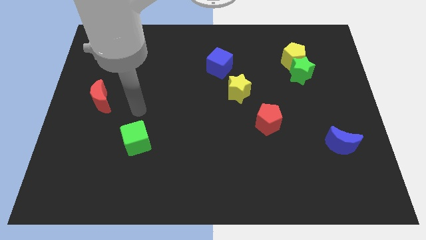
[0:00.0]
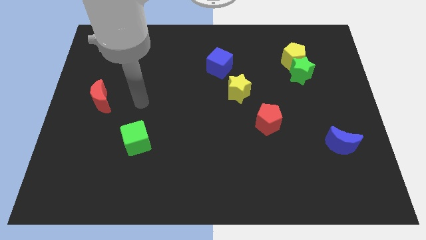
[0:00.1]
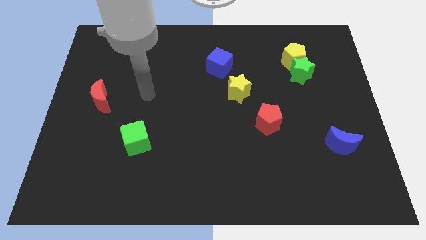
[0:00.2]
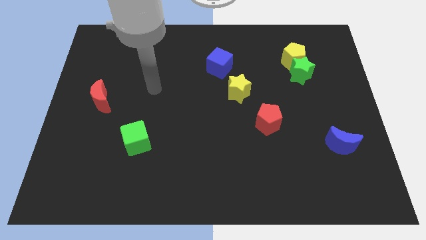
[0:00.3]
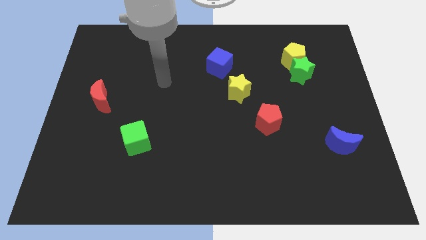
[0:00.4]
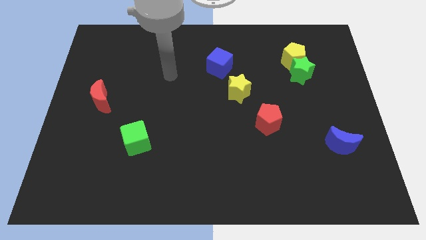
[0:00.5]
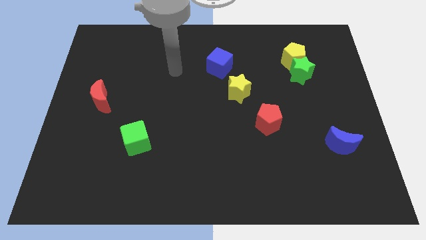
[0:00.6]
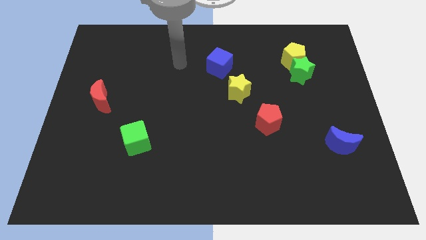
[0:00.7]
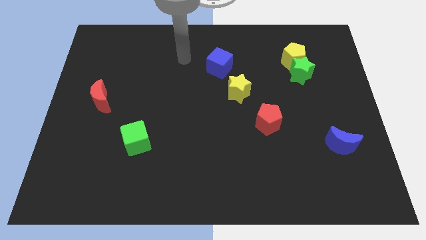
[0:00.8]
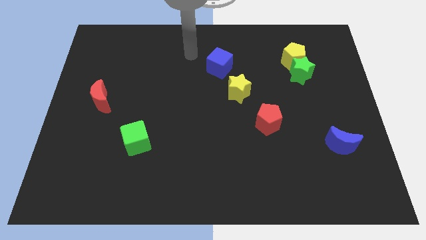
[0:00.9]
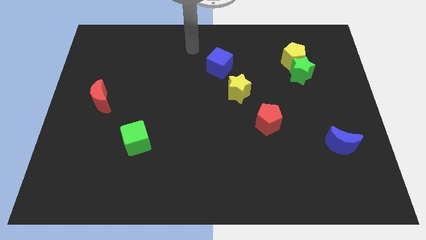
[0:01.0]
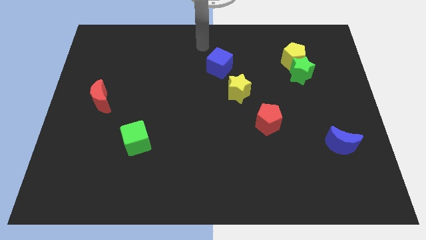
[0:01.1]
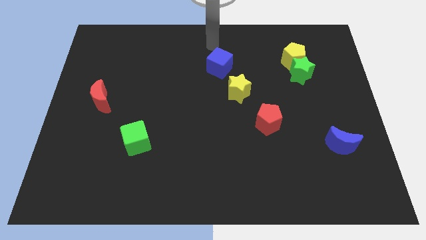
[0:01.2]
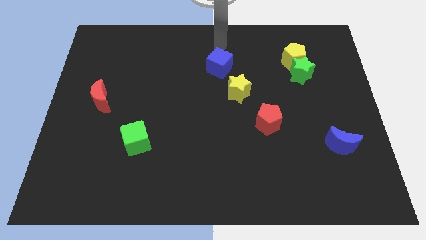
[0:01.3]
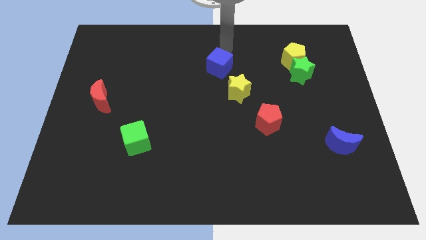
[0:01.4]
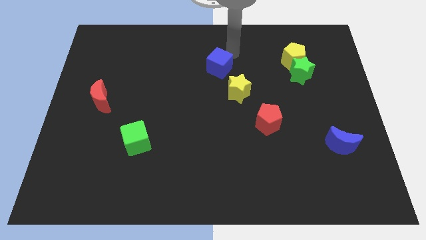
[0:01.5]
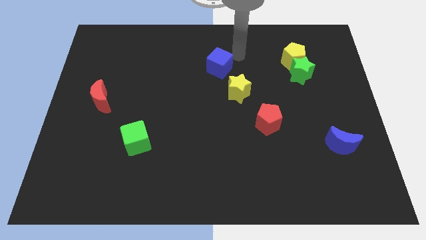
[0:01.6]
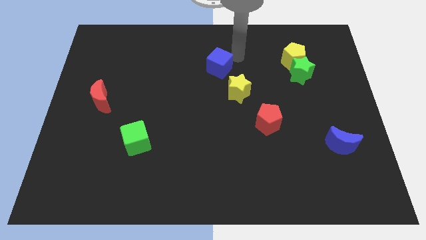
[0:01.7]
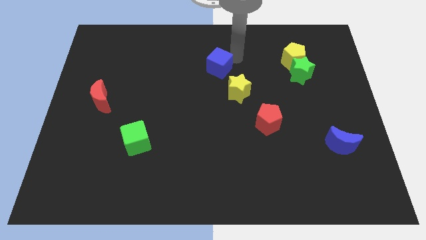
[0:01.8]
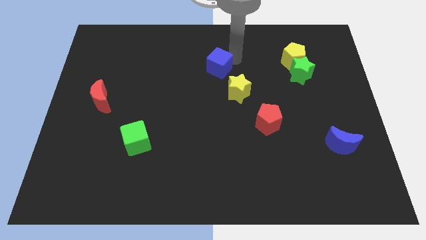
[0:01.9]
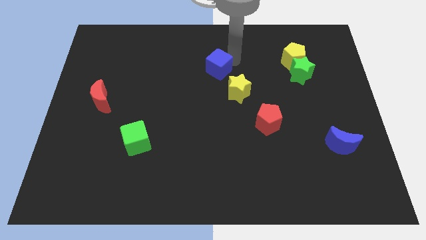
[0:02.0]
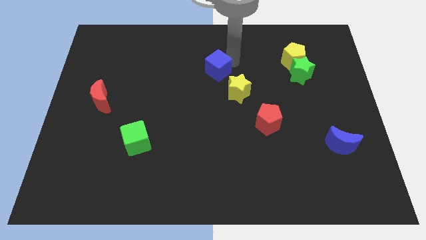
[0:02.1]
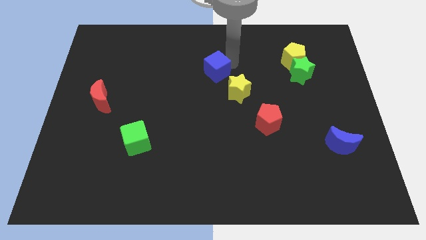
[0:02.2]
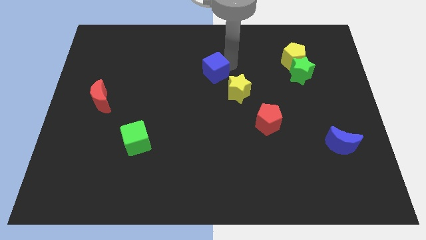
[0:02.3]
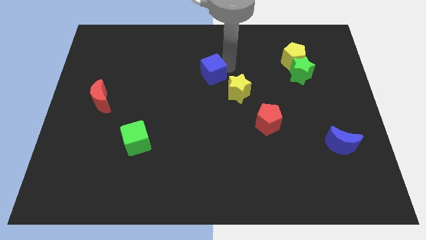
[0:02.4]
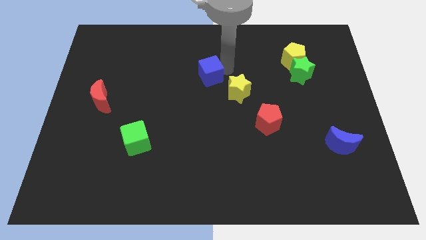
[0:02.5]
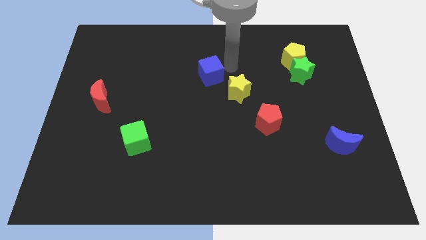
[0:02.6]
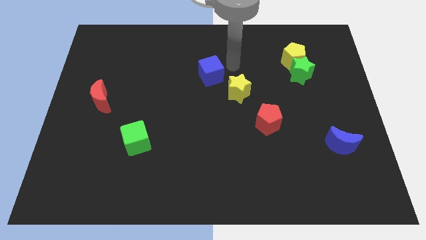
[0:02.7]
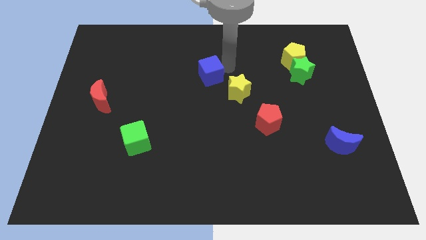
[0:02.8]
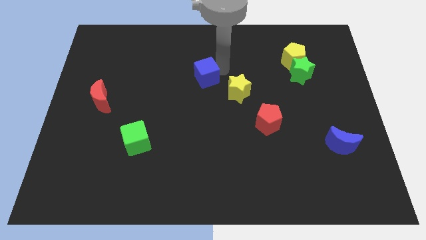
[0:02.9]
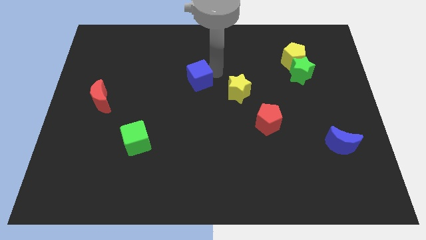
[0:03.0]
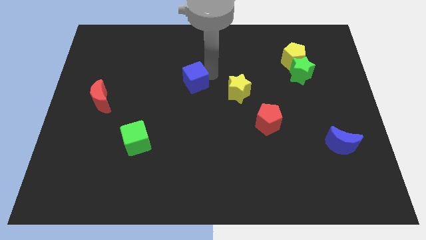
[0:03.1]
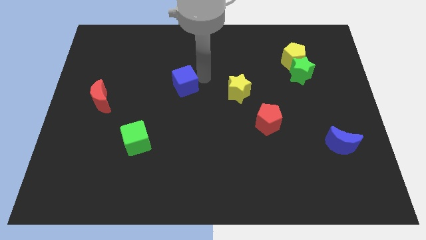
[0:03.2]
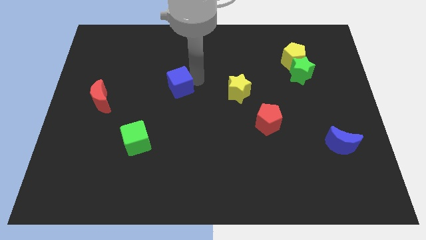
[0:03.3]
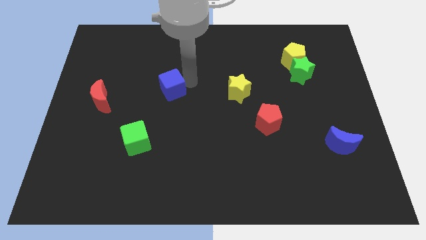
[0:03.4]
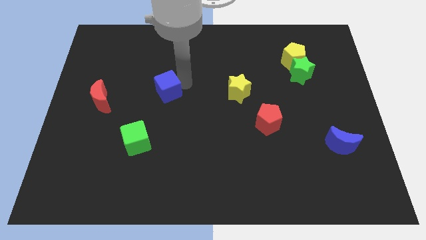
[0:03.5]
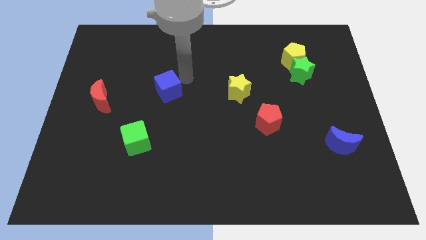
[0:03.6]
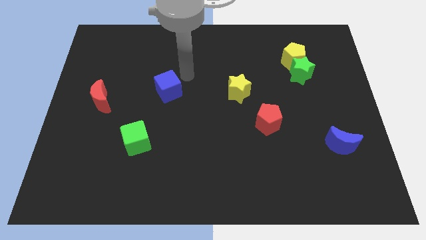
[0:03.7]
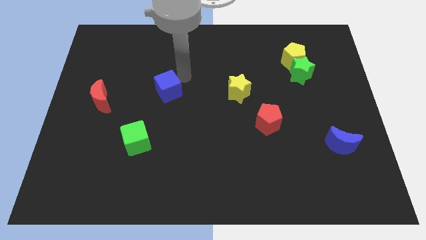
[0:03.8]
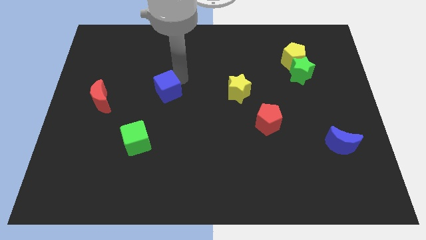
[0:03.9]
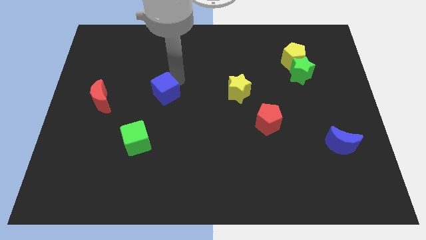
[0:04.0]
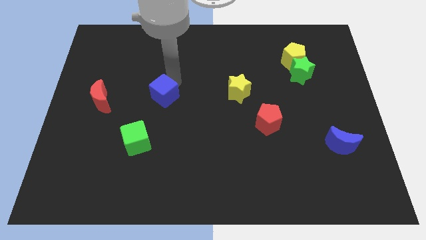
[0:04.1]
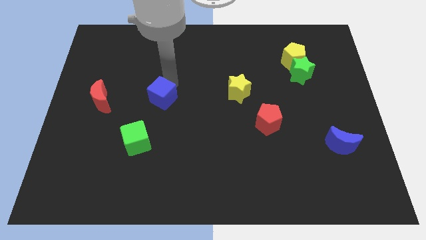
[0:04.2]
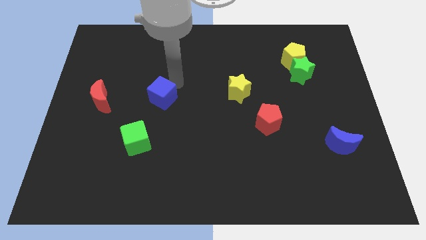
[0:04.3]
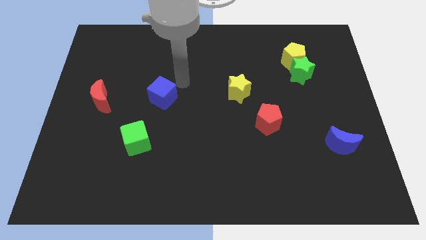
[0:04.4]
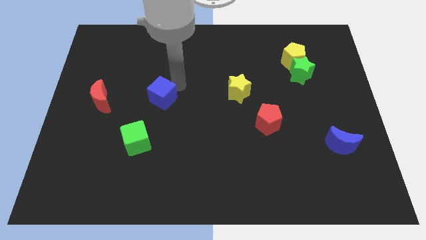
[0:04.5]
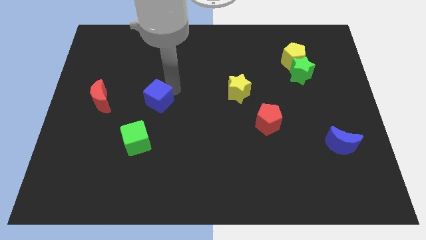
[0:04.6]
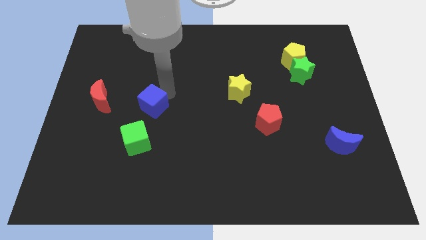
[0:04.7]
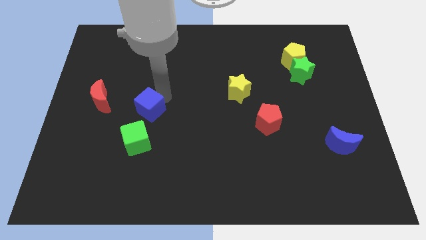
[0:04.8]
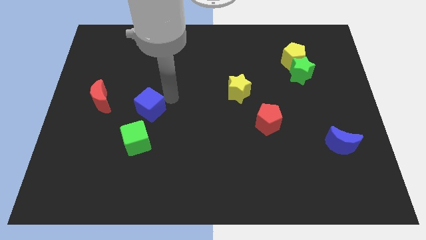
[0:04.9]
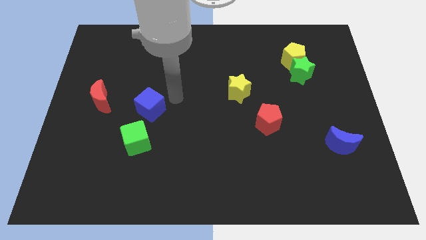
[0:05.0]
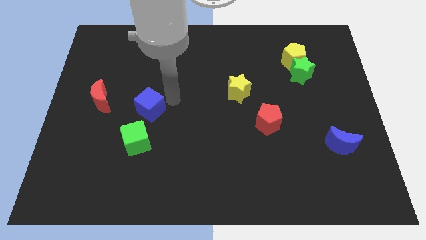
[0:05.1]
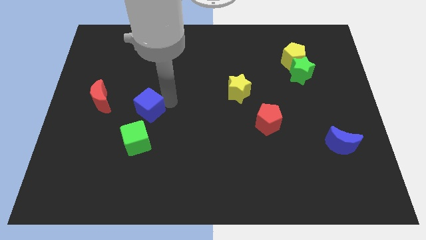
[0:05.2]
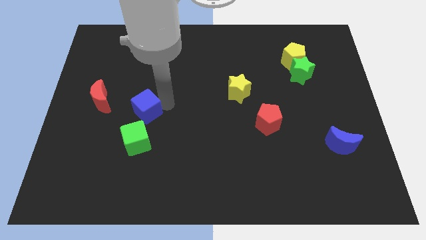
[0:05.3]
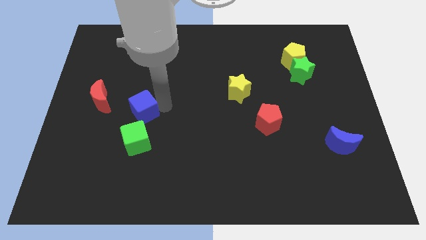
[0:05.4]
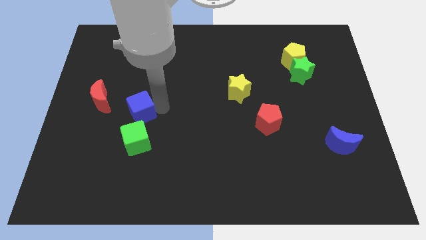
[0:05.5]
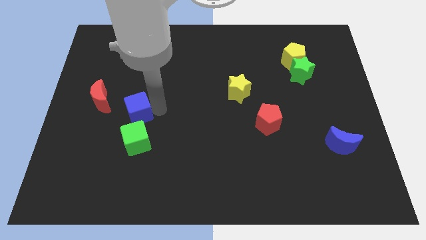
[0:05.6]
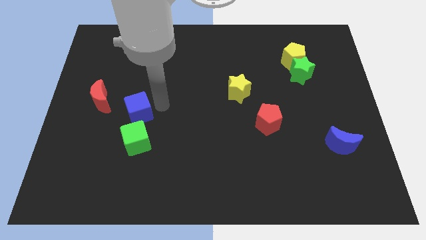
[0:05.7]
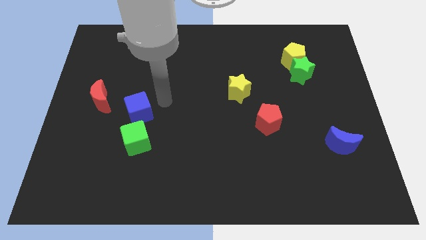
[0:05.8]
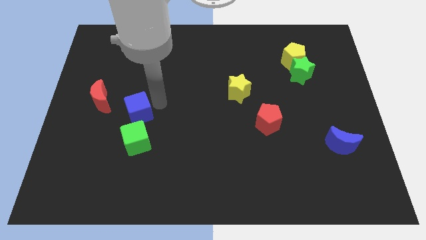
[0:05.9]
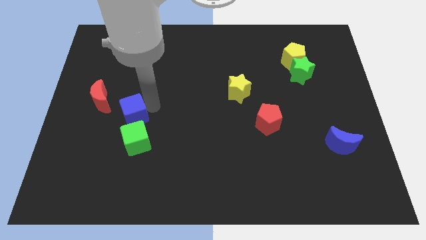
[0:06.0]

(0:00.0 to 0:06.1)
slide the blue cube to the top left side of the green cube

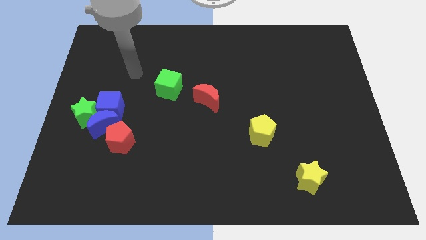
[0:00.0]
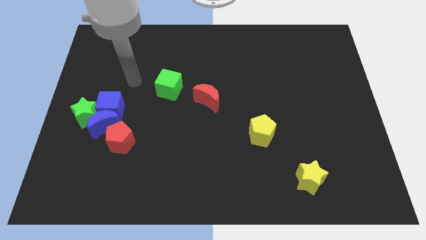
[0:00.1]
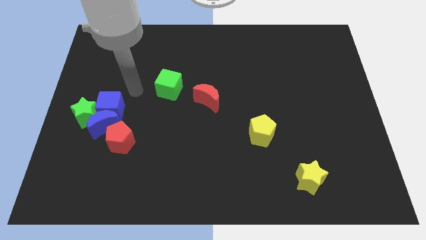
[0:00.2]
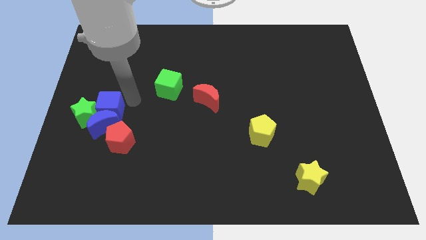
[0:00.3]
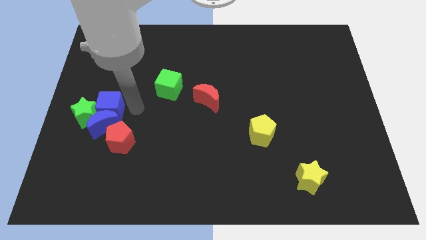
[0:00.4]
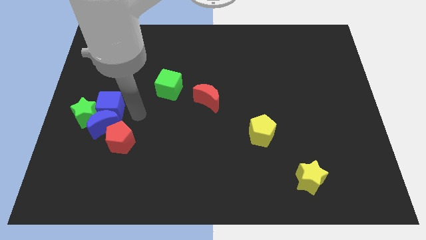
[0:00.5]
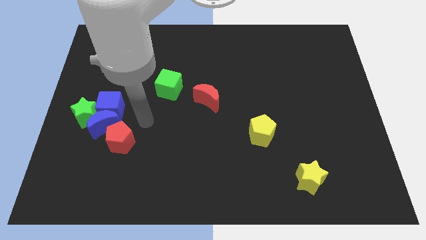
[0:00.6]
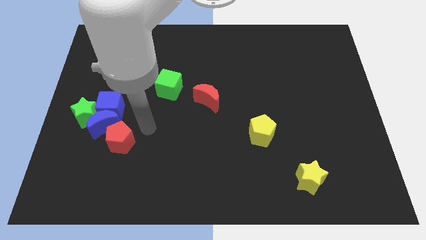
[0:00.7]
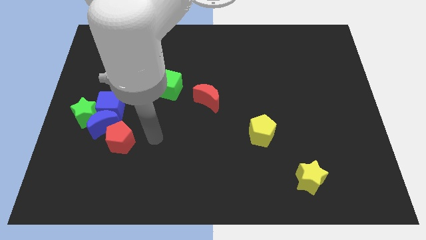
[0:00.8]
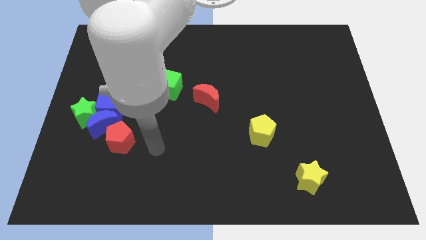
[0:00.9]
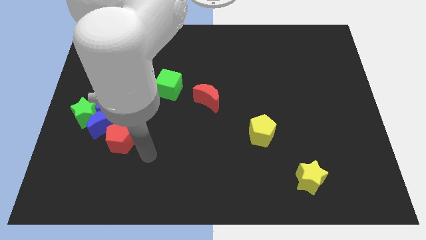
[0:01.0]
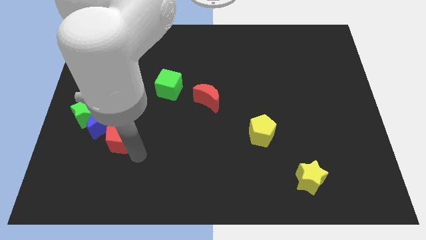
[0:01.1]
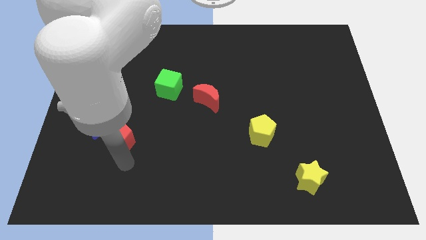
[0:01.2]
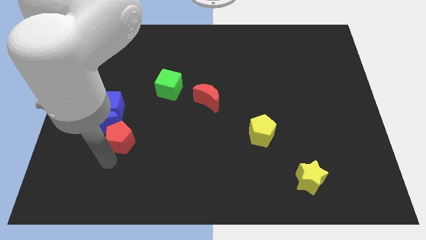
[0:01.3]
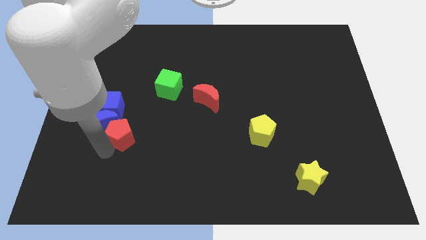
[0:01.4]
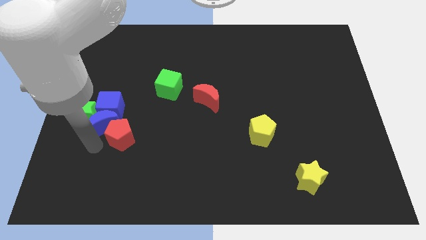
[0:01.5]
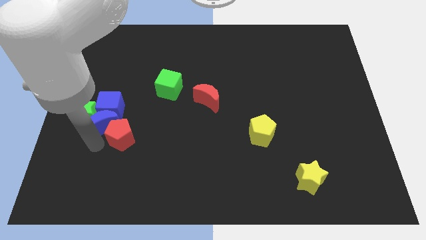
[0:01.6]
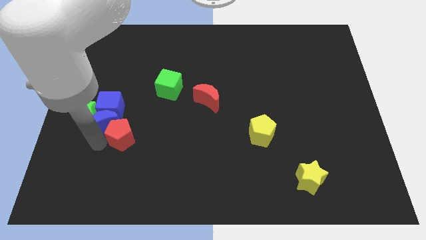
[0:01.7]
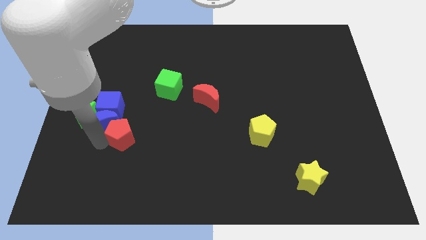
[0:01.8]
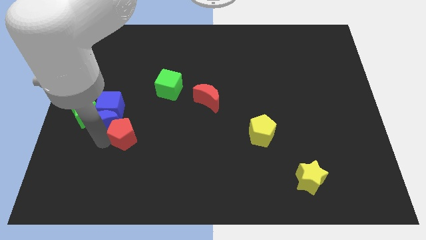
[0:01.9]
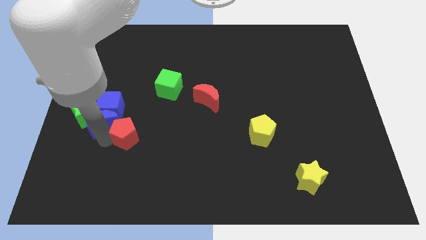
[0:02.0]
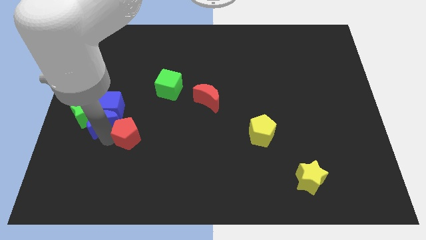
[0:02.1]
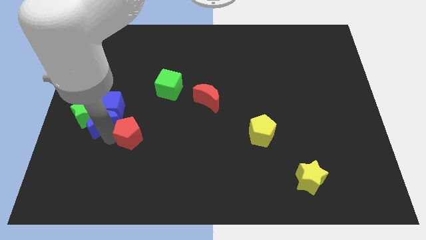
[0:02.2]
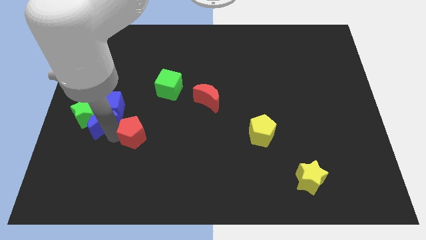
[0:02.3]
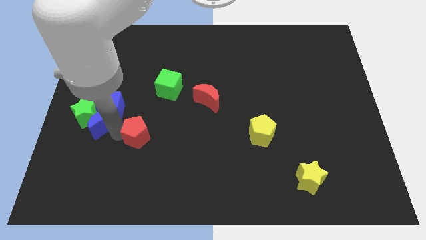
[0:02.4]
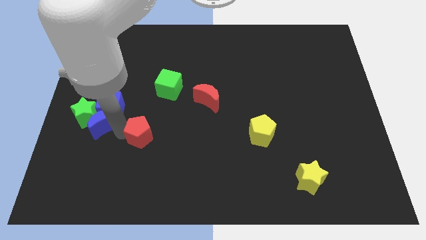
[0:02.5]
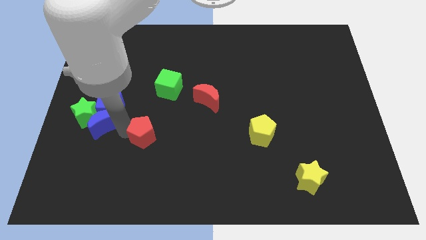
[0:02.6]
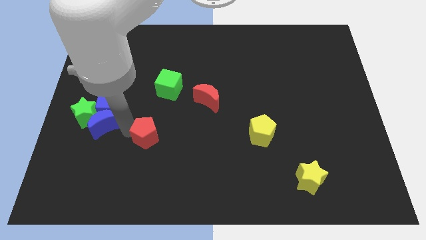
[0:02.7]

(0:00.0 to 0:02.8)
push the red pentagon to the bottom of the green cube
